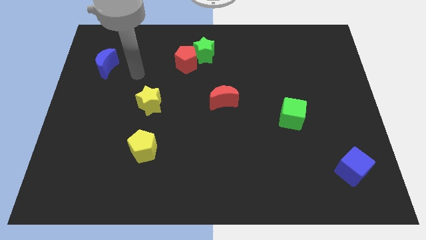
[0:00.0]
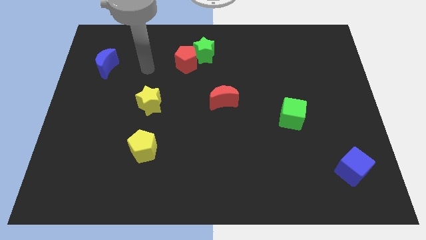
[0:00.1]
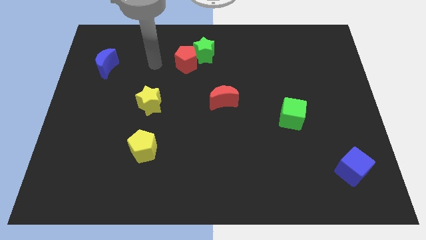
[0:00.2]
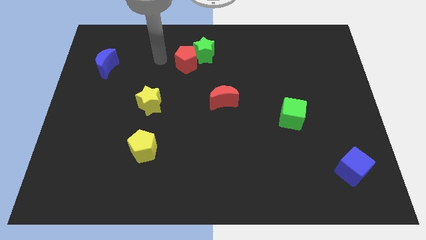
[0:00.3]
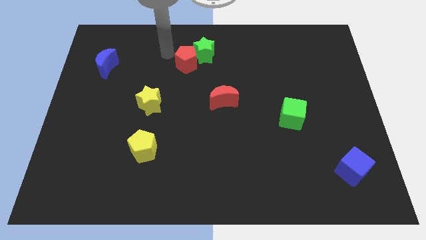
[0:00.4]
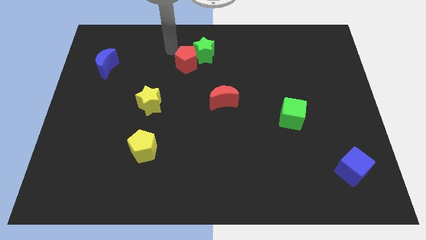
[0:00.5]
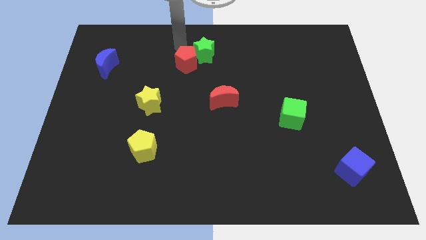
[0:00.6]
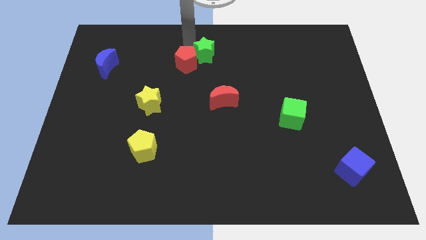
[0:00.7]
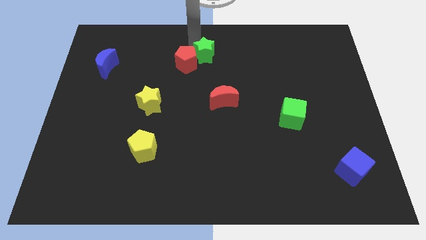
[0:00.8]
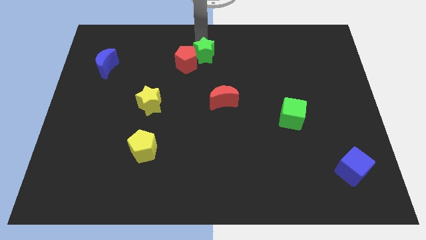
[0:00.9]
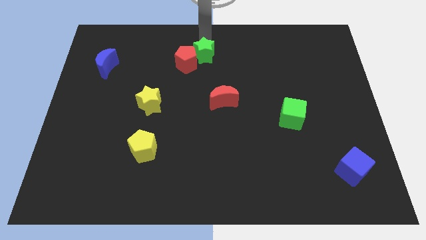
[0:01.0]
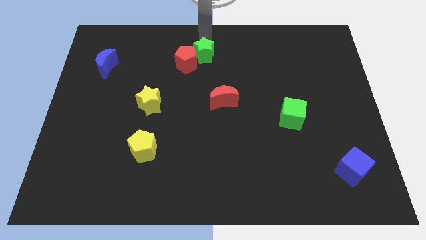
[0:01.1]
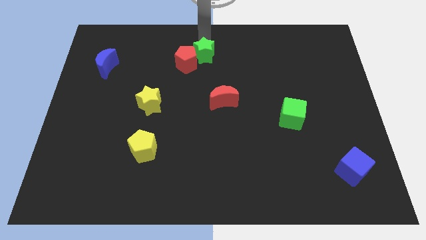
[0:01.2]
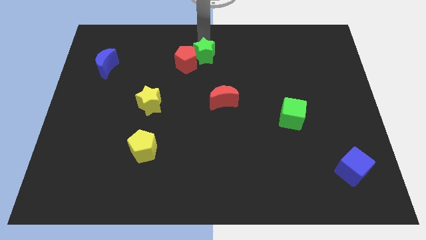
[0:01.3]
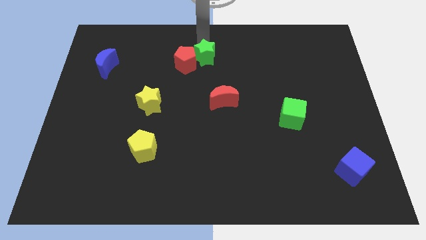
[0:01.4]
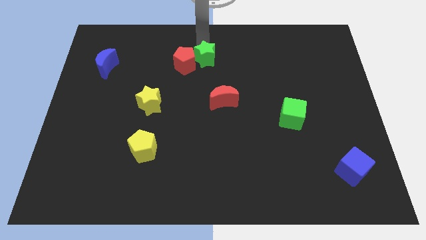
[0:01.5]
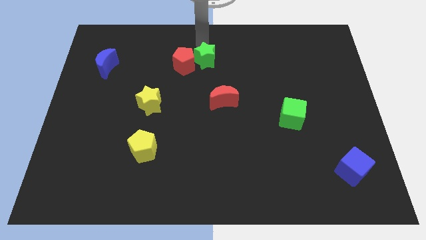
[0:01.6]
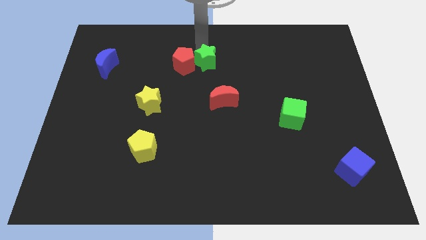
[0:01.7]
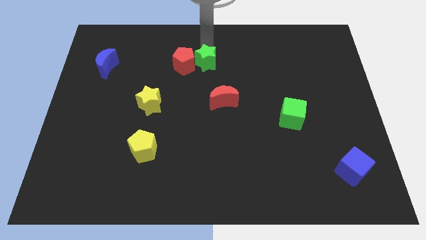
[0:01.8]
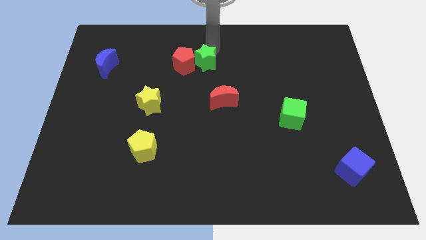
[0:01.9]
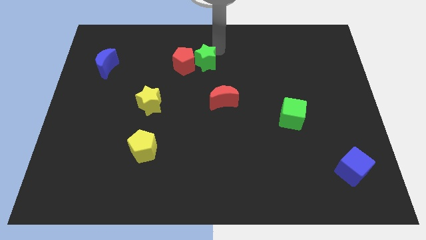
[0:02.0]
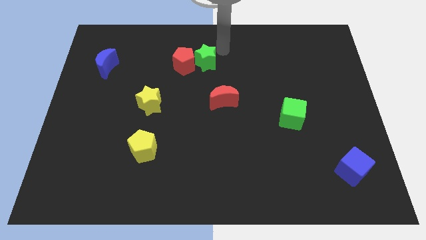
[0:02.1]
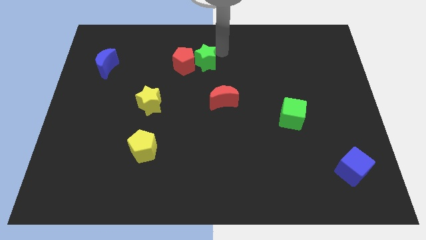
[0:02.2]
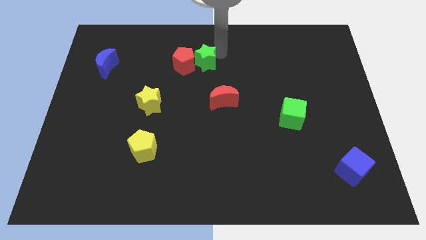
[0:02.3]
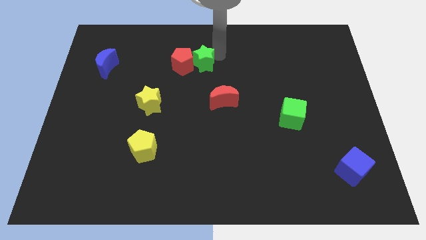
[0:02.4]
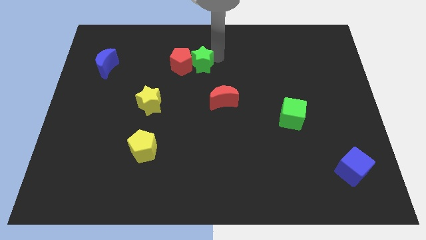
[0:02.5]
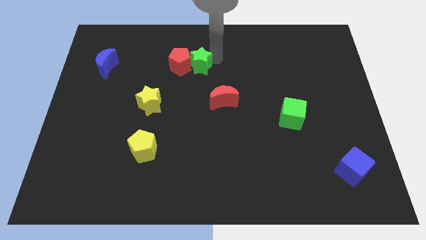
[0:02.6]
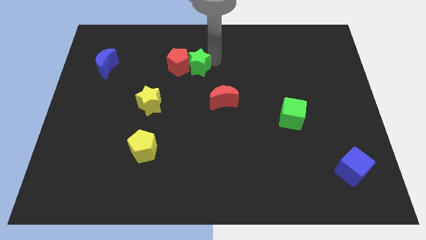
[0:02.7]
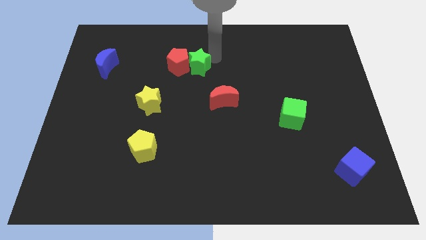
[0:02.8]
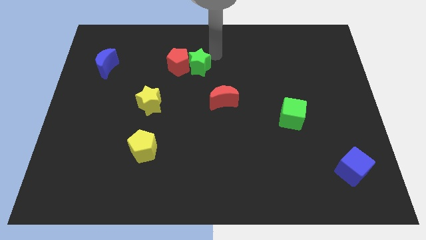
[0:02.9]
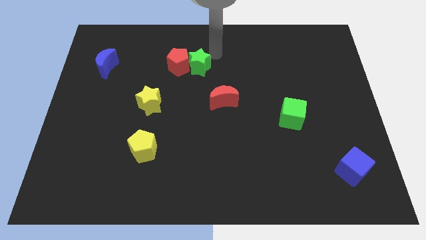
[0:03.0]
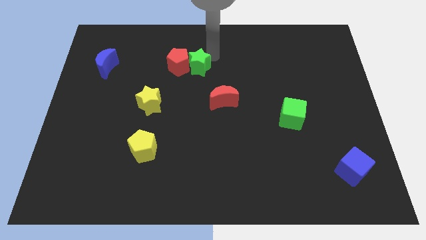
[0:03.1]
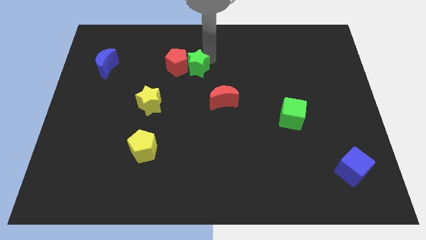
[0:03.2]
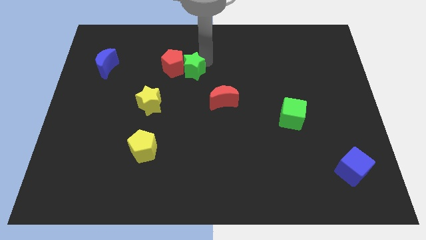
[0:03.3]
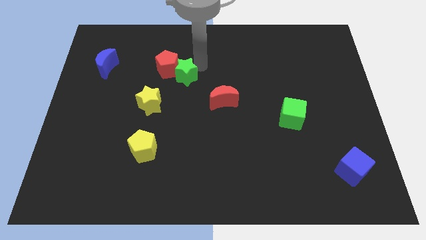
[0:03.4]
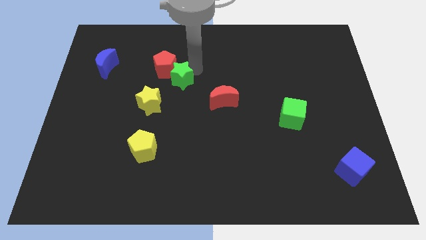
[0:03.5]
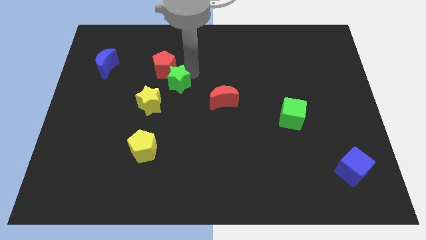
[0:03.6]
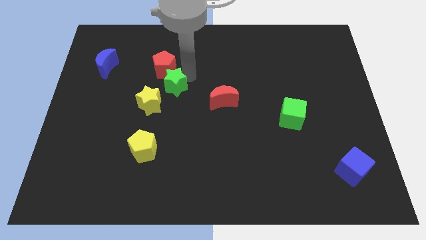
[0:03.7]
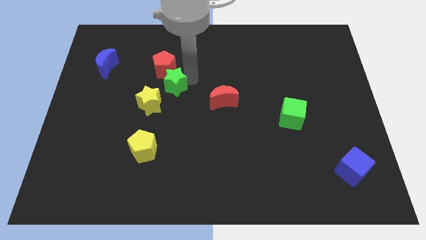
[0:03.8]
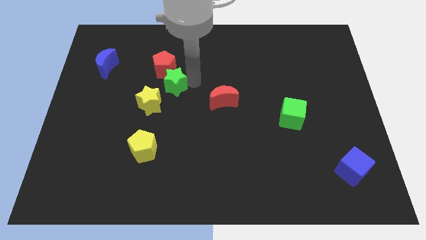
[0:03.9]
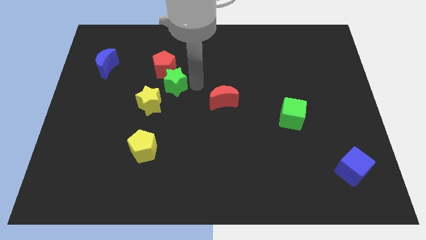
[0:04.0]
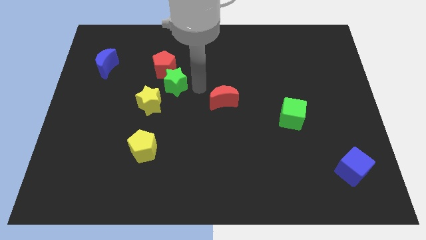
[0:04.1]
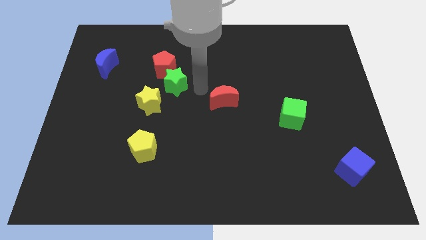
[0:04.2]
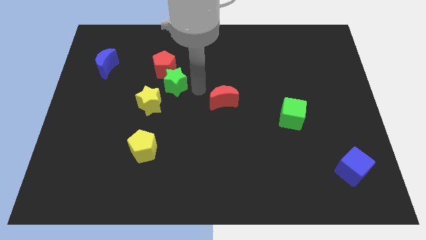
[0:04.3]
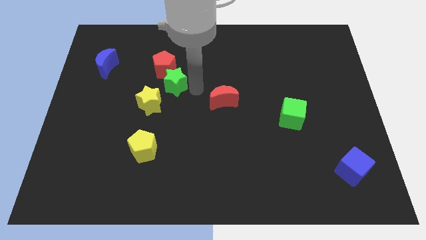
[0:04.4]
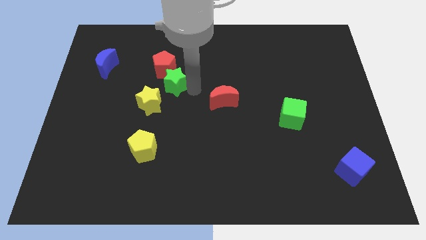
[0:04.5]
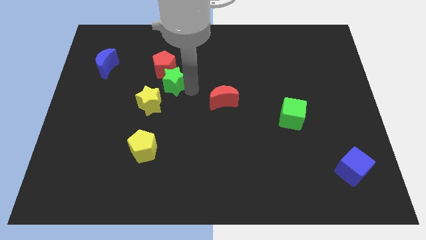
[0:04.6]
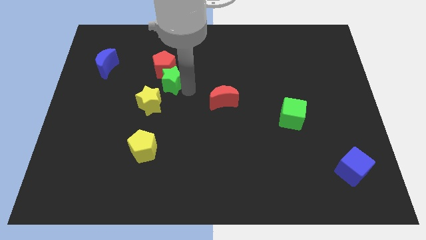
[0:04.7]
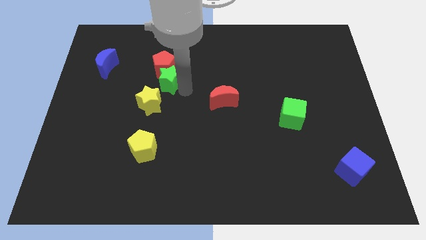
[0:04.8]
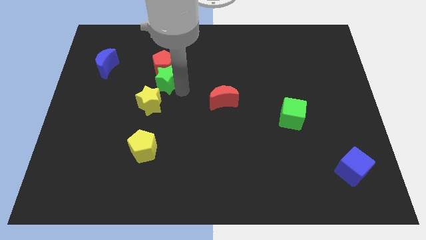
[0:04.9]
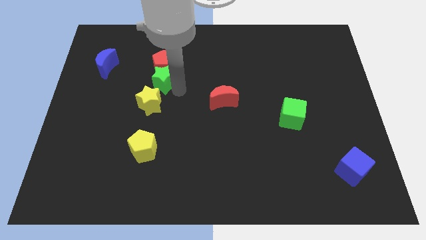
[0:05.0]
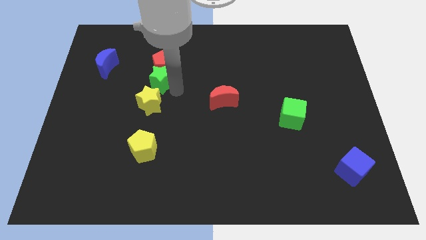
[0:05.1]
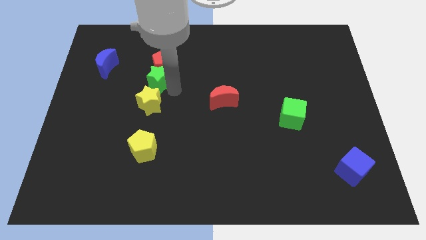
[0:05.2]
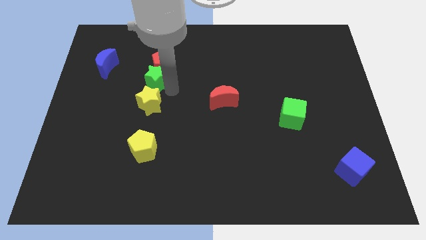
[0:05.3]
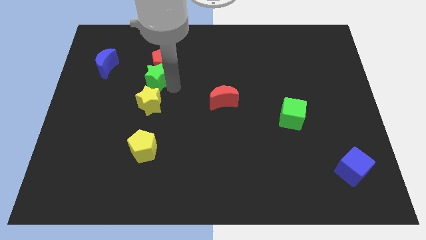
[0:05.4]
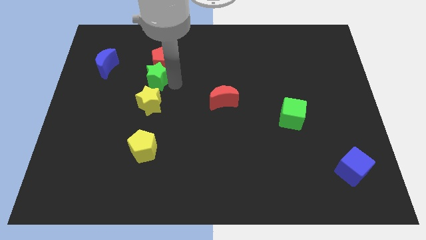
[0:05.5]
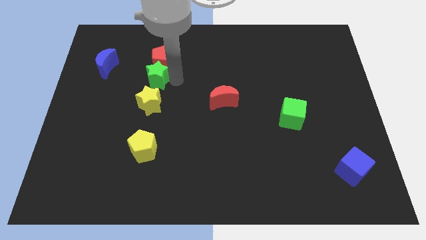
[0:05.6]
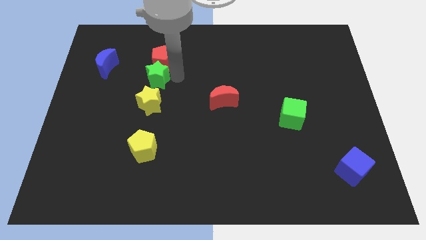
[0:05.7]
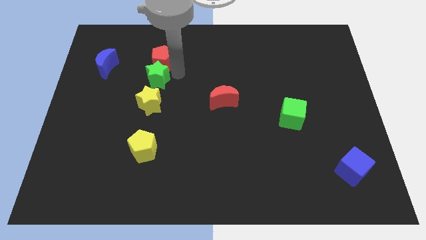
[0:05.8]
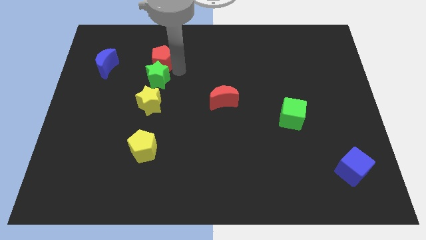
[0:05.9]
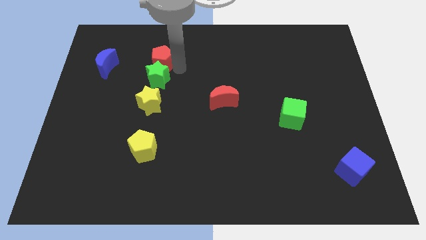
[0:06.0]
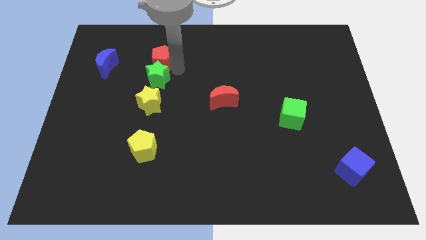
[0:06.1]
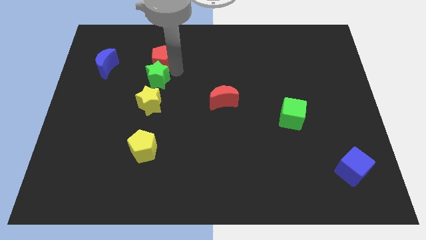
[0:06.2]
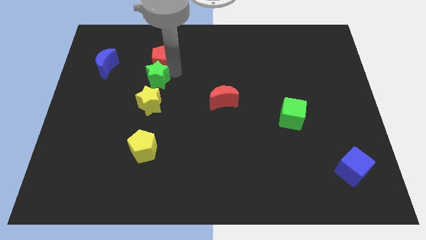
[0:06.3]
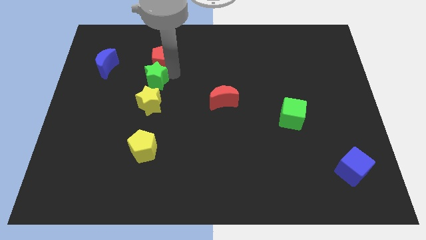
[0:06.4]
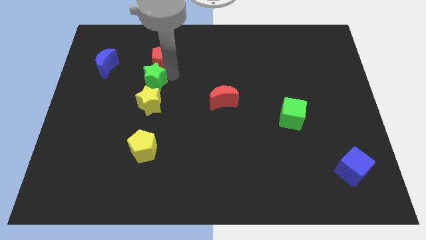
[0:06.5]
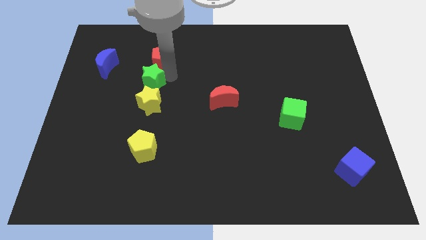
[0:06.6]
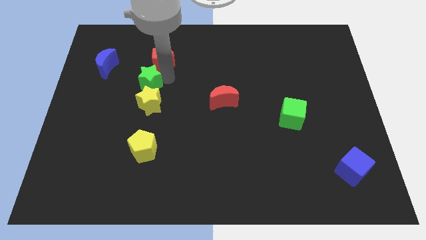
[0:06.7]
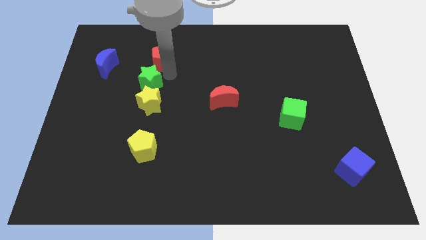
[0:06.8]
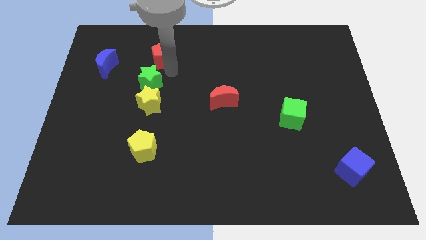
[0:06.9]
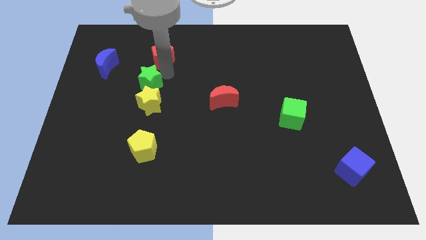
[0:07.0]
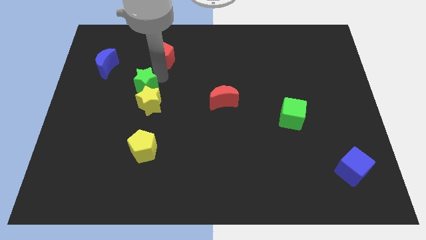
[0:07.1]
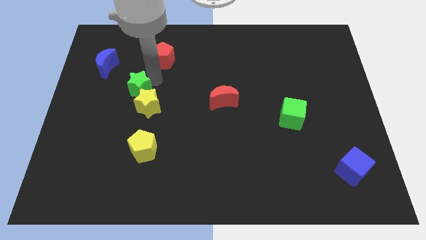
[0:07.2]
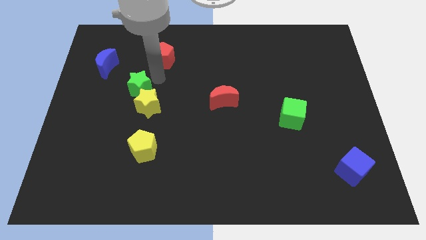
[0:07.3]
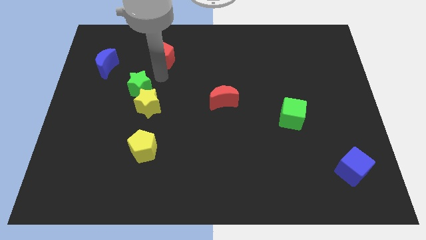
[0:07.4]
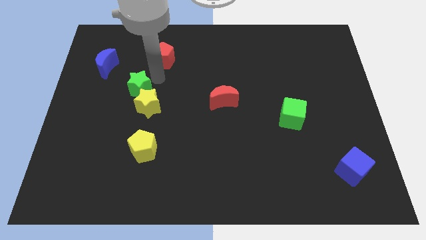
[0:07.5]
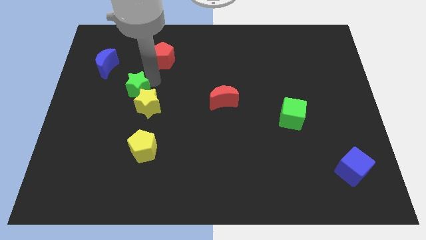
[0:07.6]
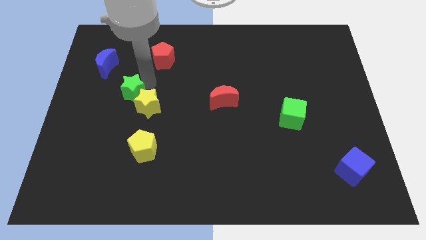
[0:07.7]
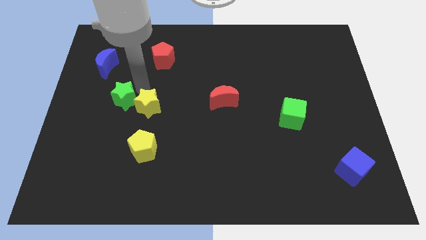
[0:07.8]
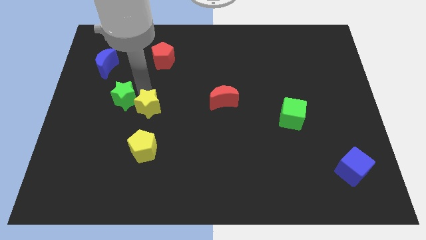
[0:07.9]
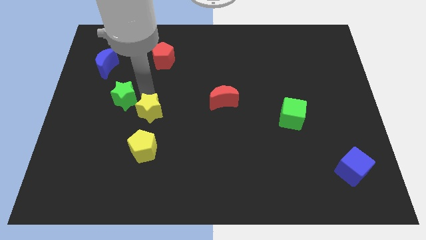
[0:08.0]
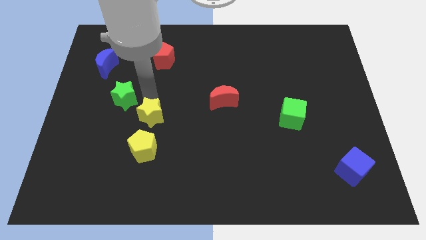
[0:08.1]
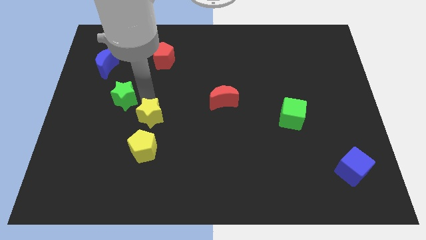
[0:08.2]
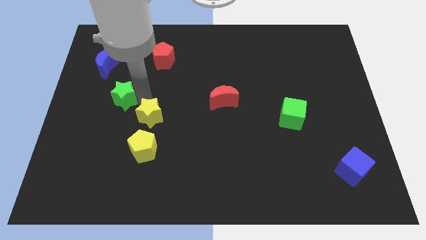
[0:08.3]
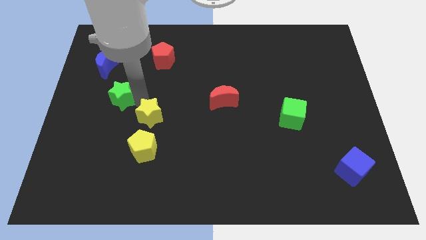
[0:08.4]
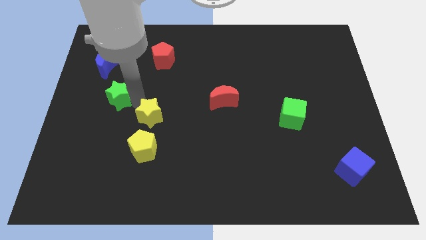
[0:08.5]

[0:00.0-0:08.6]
push the green star below the blue moon
